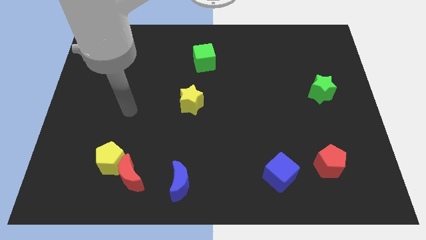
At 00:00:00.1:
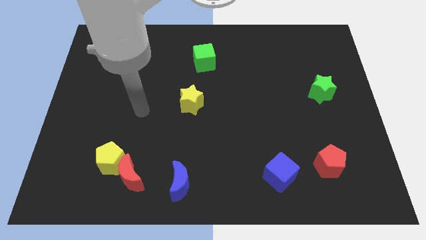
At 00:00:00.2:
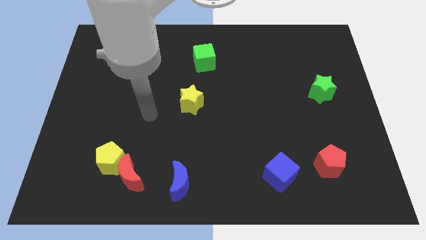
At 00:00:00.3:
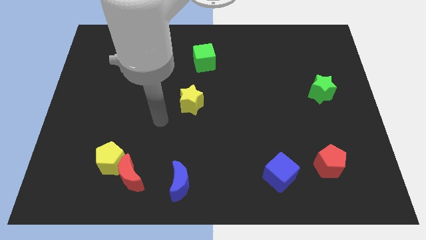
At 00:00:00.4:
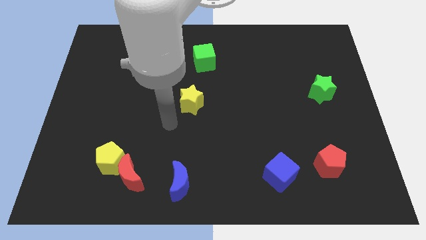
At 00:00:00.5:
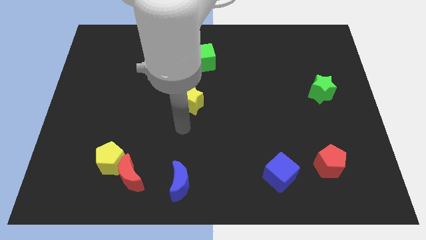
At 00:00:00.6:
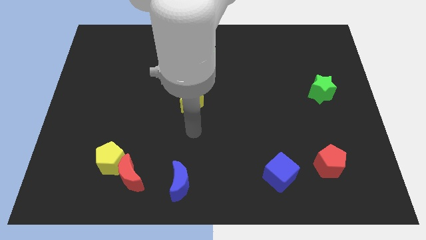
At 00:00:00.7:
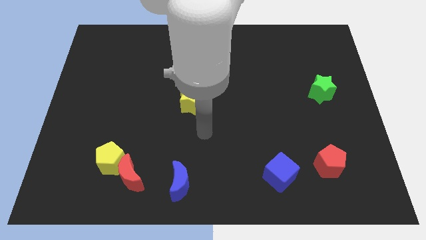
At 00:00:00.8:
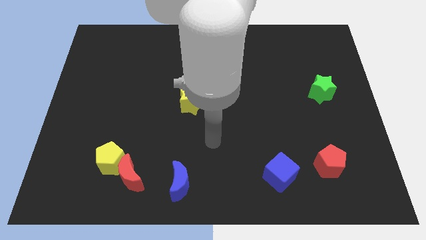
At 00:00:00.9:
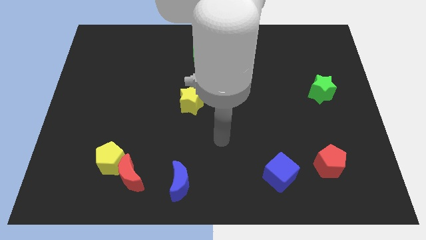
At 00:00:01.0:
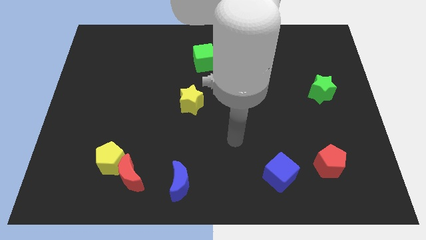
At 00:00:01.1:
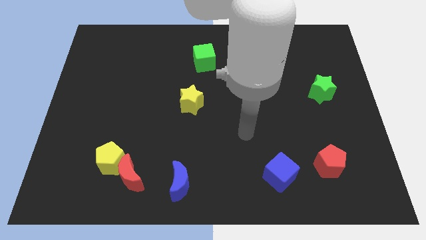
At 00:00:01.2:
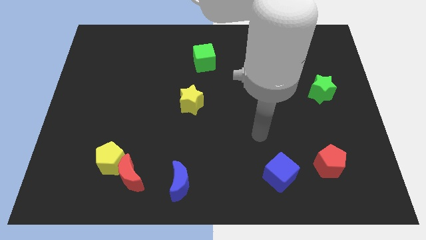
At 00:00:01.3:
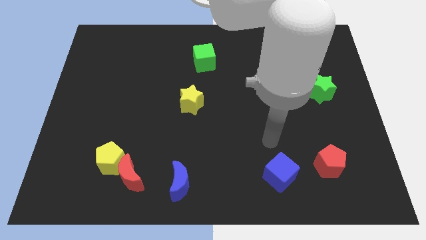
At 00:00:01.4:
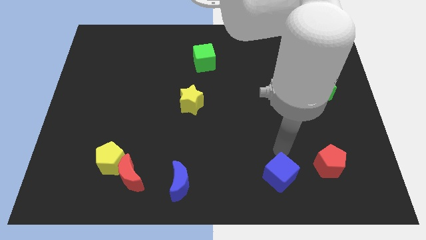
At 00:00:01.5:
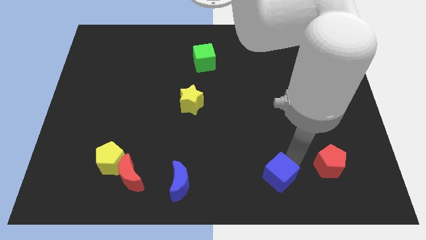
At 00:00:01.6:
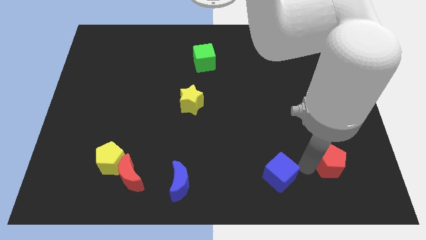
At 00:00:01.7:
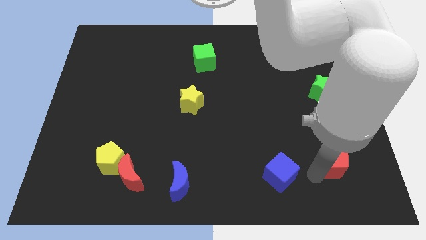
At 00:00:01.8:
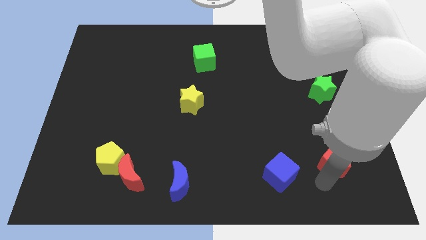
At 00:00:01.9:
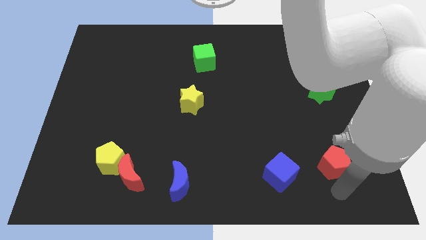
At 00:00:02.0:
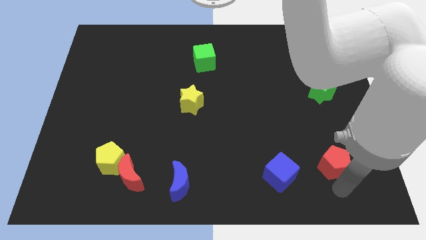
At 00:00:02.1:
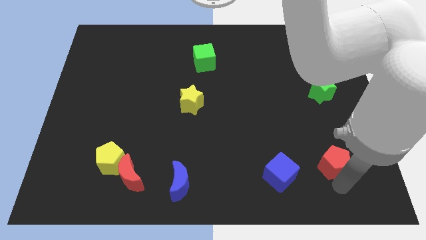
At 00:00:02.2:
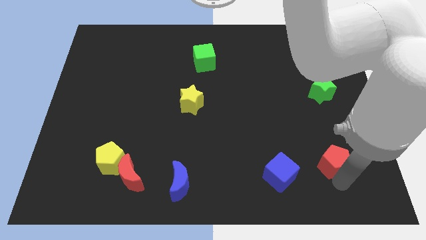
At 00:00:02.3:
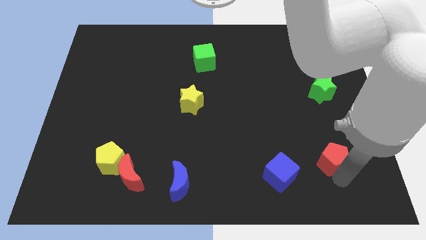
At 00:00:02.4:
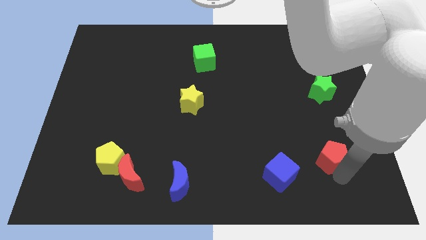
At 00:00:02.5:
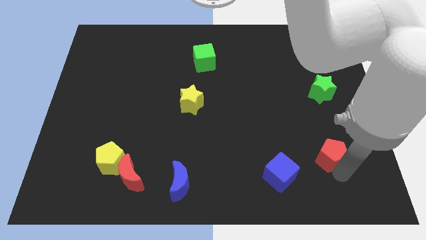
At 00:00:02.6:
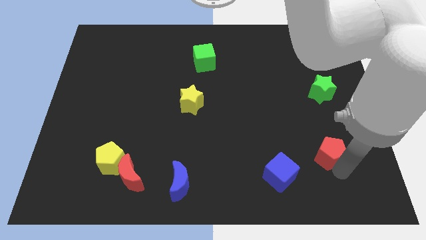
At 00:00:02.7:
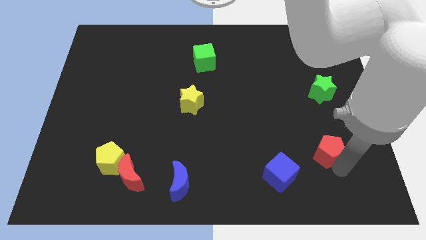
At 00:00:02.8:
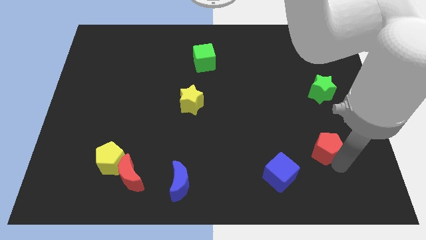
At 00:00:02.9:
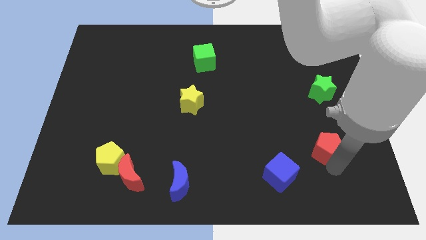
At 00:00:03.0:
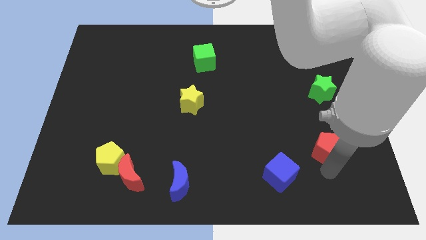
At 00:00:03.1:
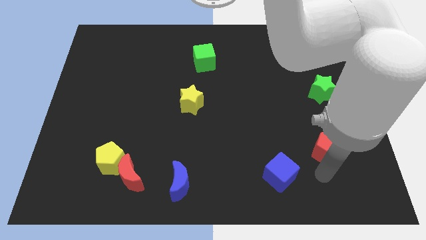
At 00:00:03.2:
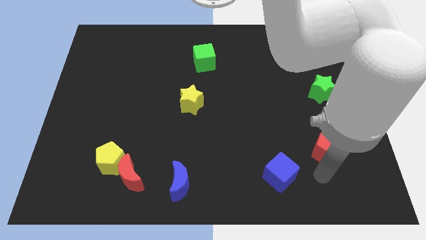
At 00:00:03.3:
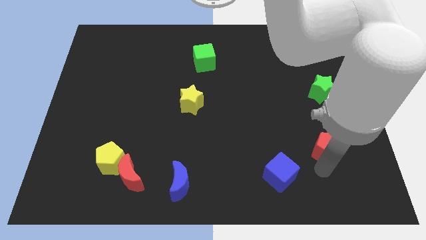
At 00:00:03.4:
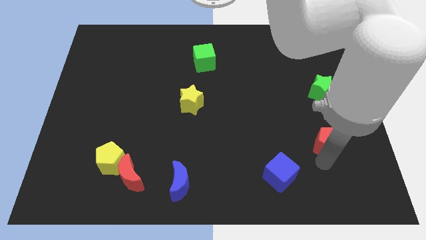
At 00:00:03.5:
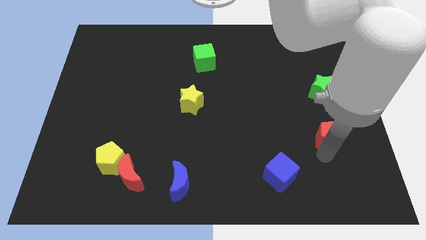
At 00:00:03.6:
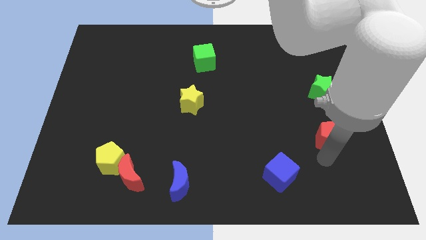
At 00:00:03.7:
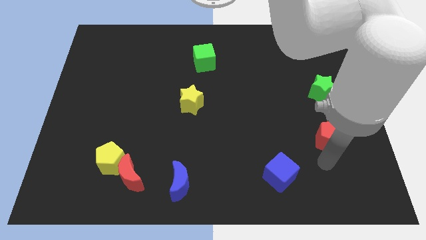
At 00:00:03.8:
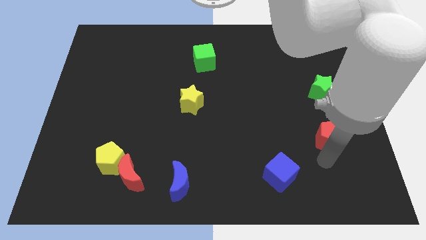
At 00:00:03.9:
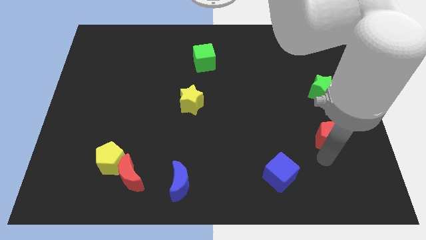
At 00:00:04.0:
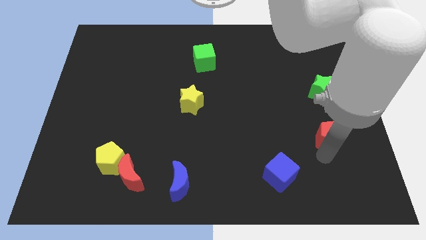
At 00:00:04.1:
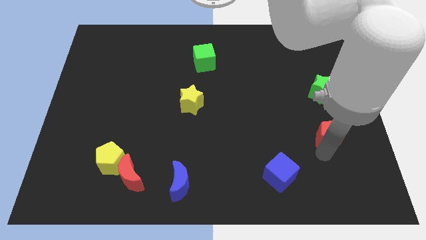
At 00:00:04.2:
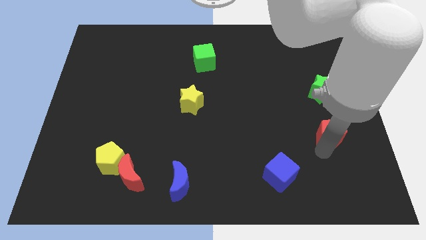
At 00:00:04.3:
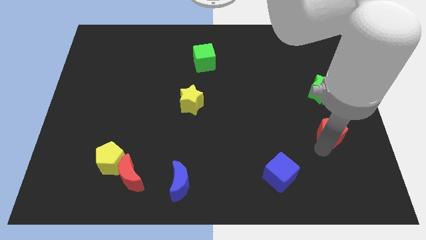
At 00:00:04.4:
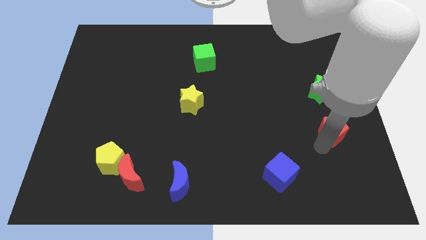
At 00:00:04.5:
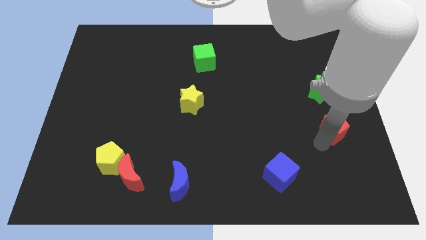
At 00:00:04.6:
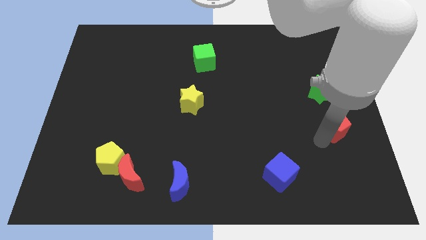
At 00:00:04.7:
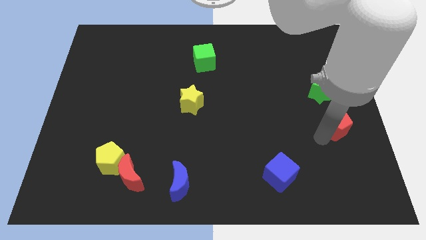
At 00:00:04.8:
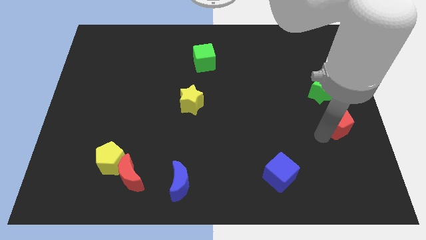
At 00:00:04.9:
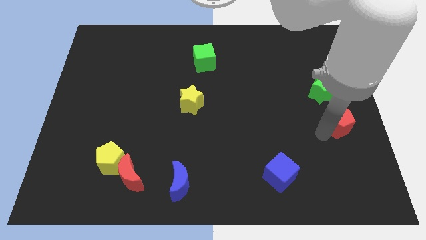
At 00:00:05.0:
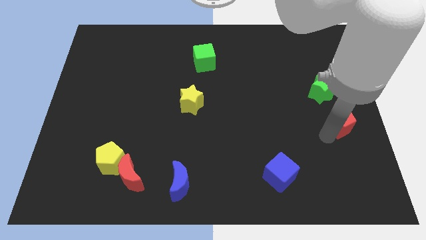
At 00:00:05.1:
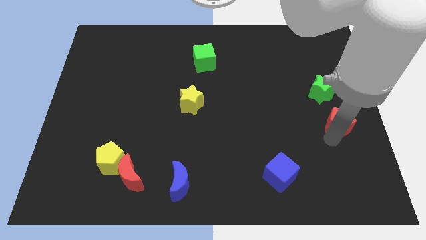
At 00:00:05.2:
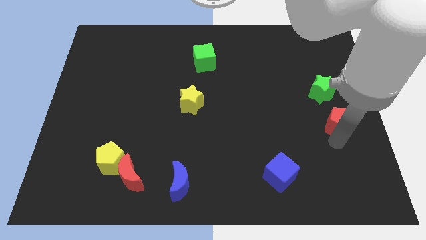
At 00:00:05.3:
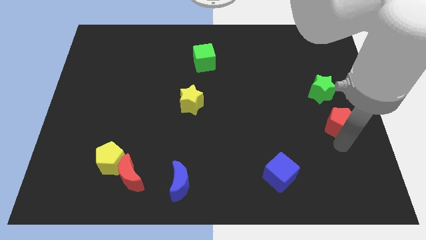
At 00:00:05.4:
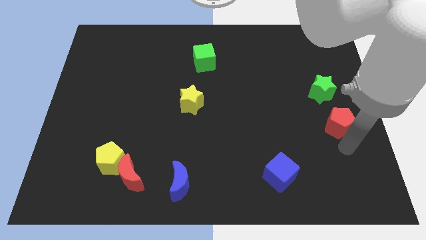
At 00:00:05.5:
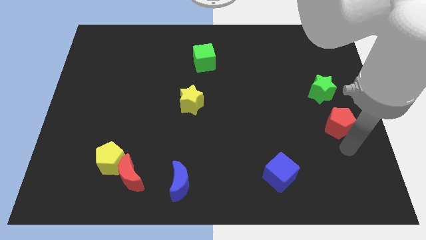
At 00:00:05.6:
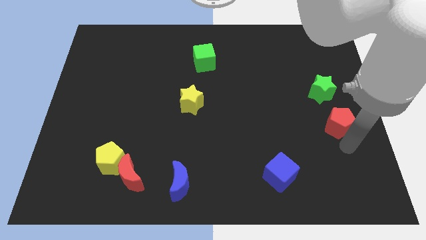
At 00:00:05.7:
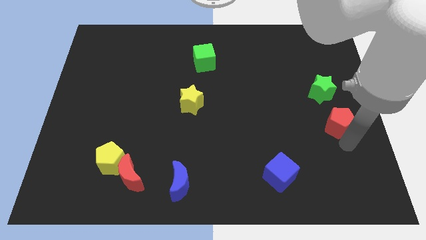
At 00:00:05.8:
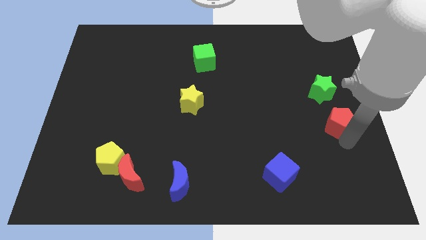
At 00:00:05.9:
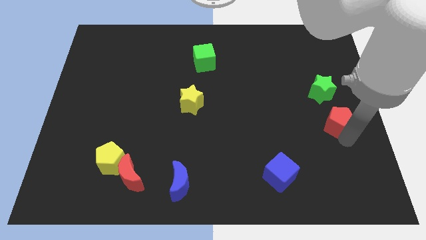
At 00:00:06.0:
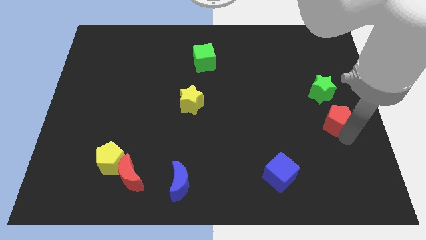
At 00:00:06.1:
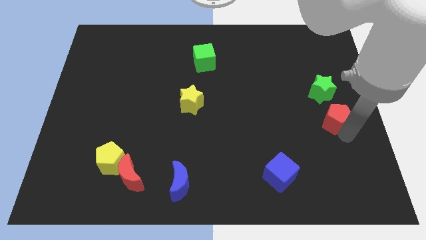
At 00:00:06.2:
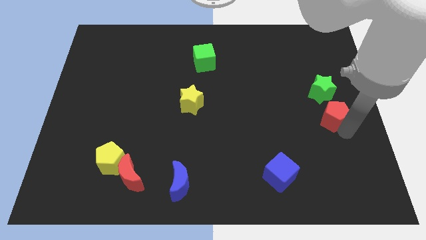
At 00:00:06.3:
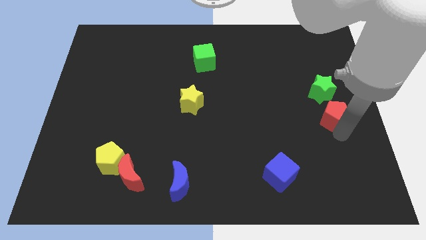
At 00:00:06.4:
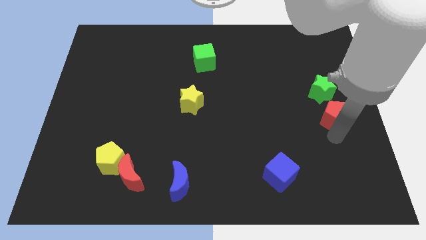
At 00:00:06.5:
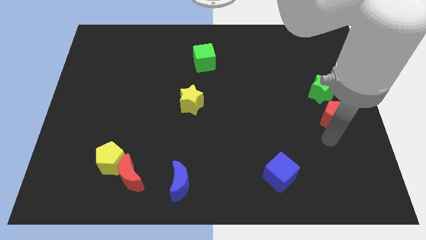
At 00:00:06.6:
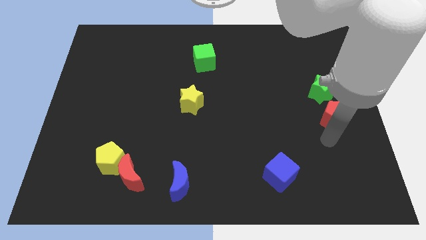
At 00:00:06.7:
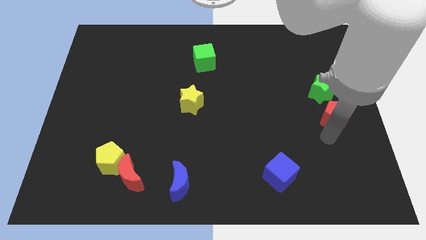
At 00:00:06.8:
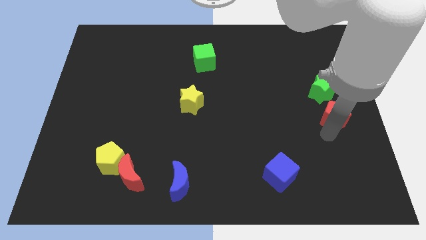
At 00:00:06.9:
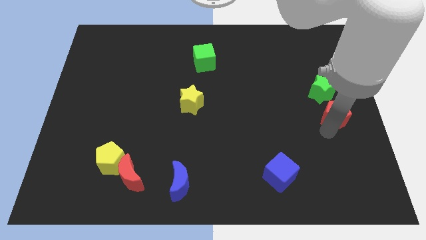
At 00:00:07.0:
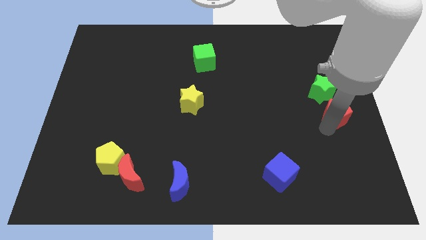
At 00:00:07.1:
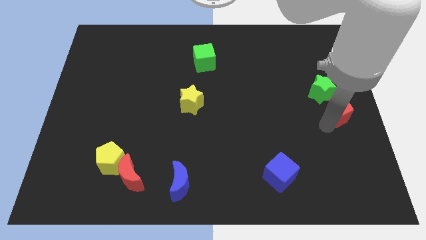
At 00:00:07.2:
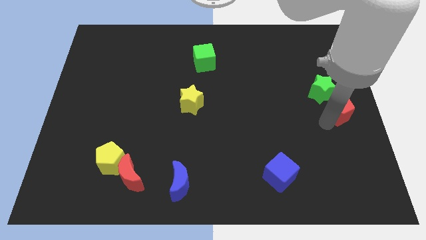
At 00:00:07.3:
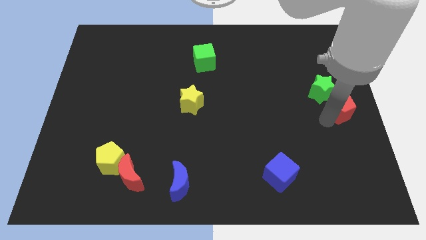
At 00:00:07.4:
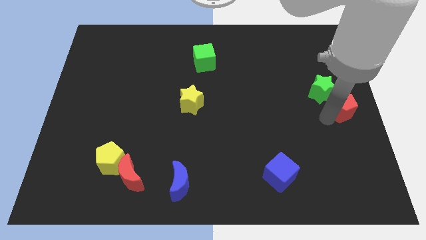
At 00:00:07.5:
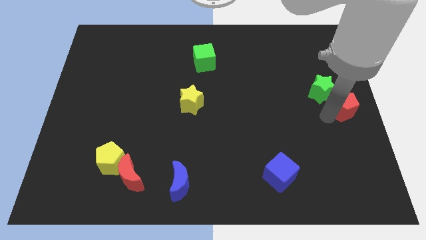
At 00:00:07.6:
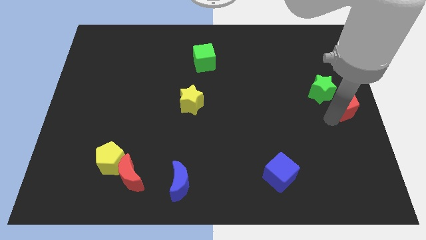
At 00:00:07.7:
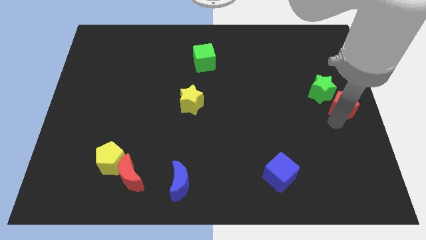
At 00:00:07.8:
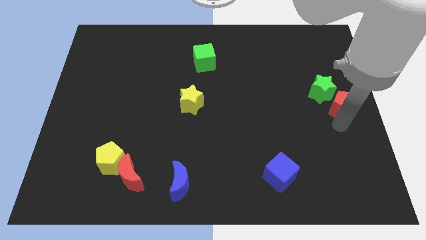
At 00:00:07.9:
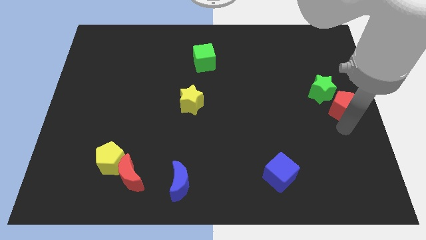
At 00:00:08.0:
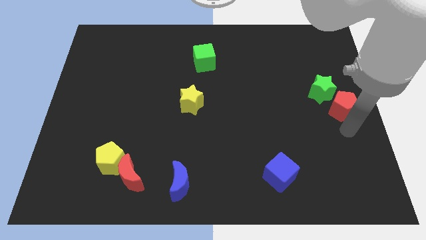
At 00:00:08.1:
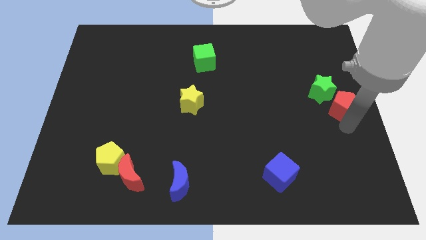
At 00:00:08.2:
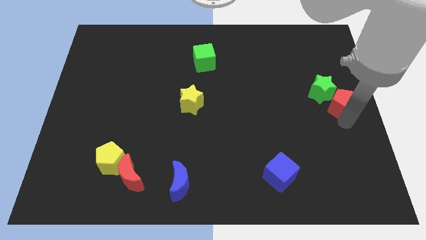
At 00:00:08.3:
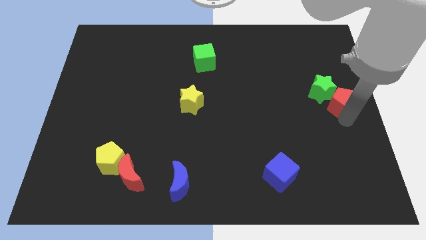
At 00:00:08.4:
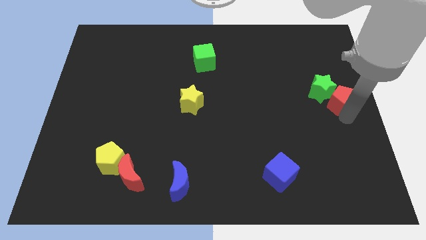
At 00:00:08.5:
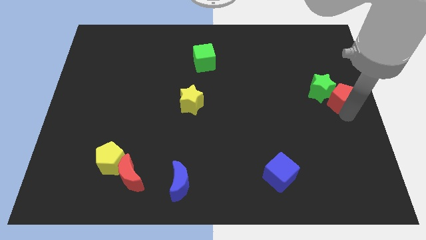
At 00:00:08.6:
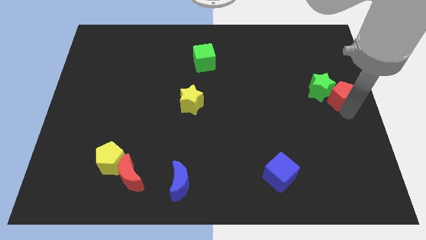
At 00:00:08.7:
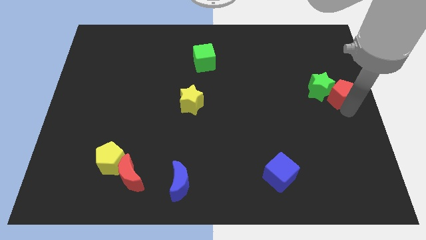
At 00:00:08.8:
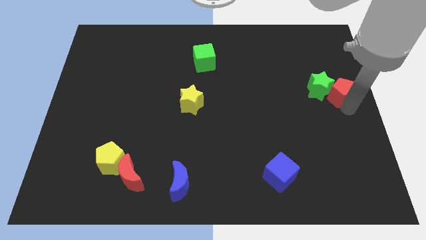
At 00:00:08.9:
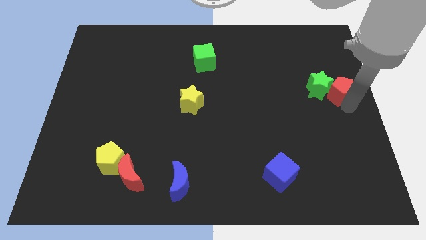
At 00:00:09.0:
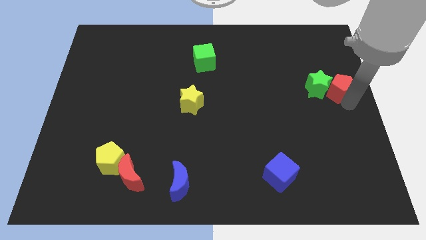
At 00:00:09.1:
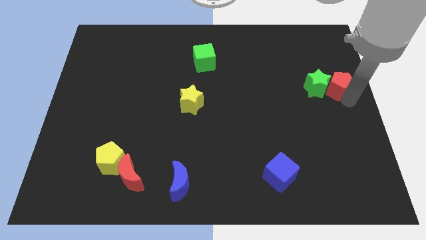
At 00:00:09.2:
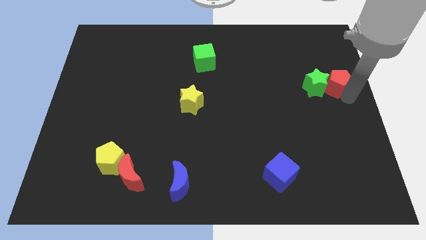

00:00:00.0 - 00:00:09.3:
push the red pentagon upwards
